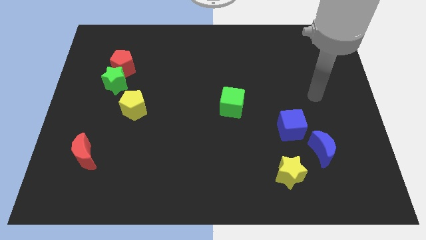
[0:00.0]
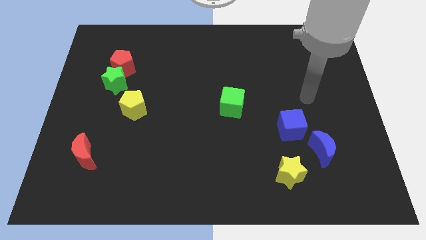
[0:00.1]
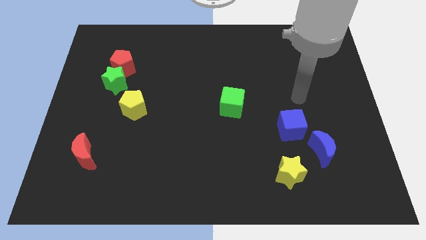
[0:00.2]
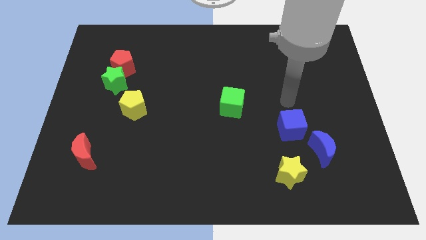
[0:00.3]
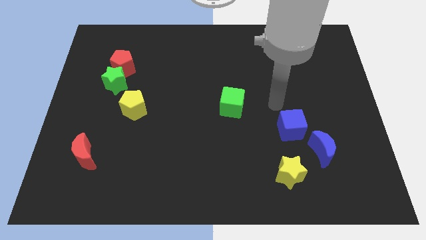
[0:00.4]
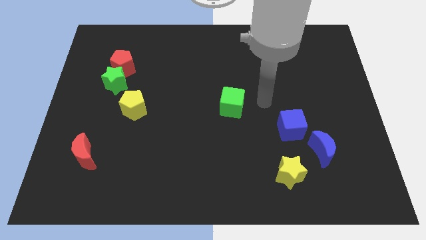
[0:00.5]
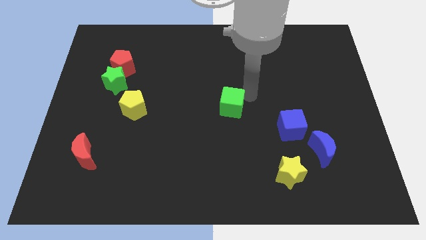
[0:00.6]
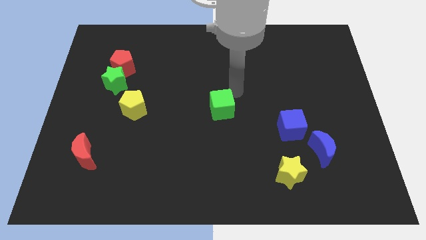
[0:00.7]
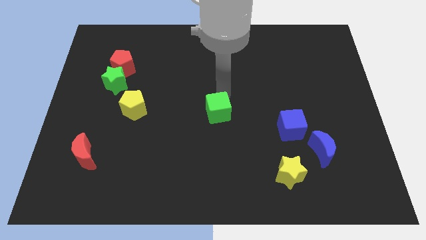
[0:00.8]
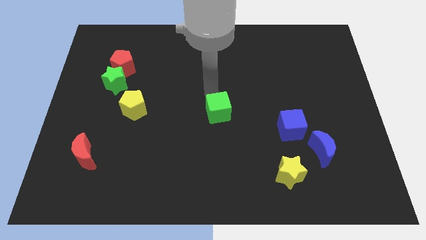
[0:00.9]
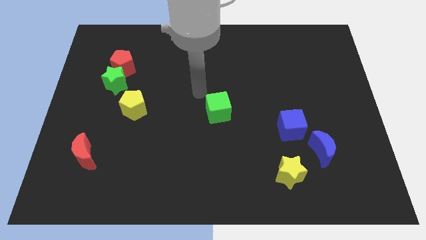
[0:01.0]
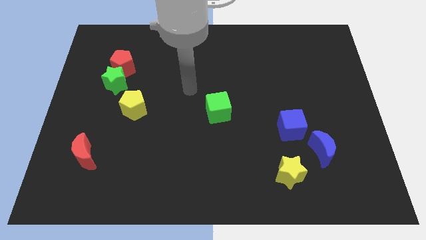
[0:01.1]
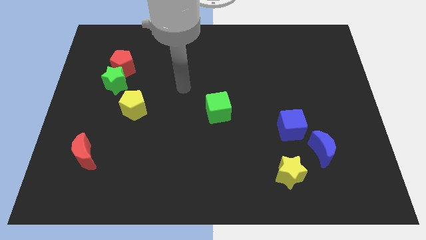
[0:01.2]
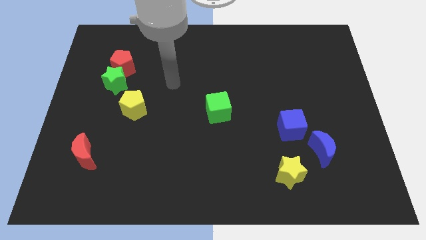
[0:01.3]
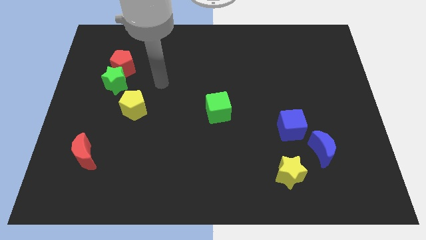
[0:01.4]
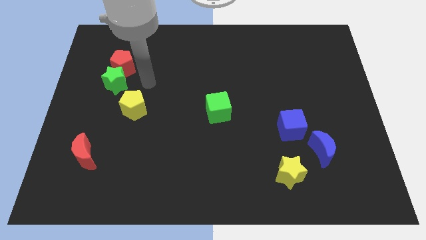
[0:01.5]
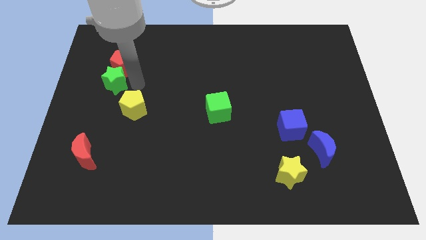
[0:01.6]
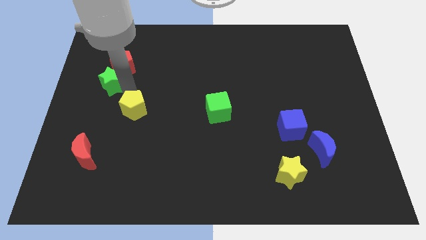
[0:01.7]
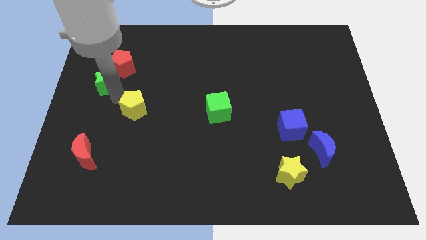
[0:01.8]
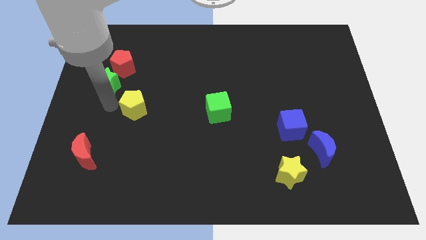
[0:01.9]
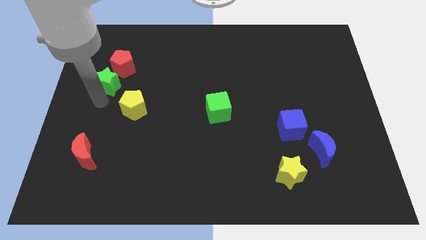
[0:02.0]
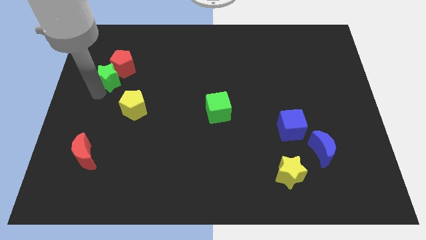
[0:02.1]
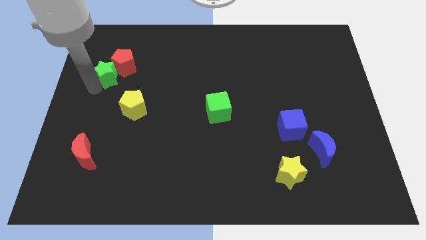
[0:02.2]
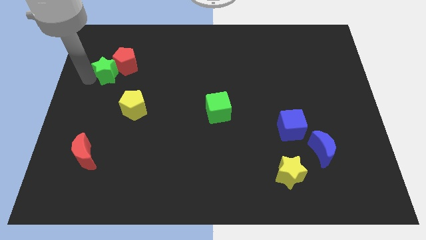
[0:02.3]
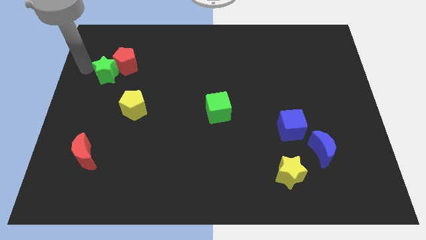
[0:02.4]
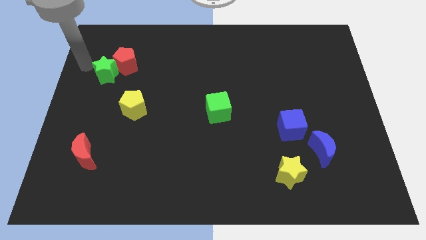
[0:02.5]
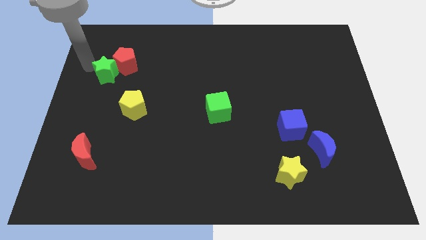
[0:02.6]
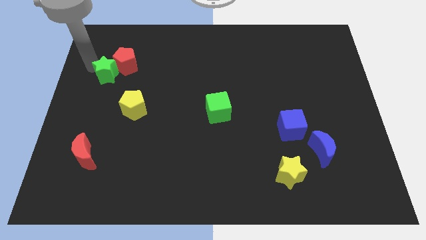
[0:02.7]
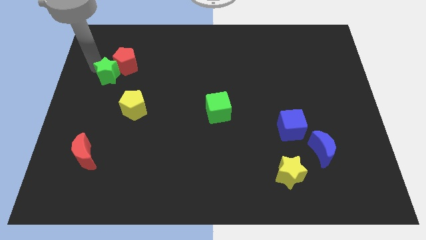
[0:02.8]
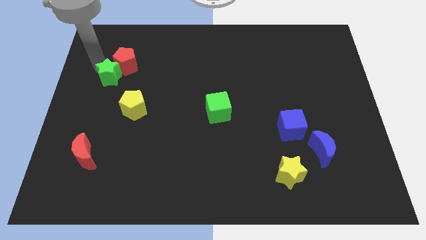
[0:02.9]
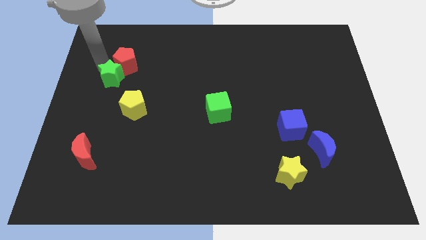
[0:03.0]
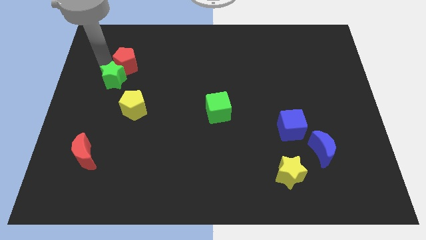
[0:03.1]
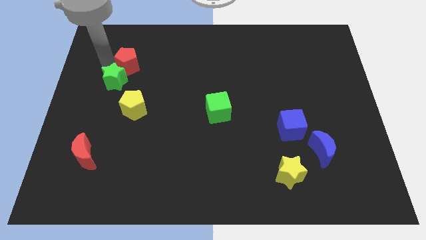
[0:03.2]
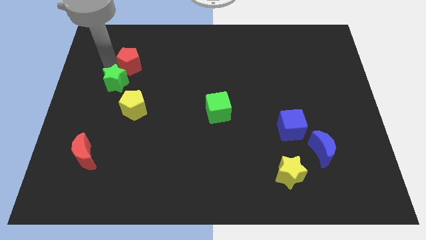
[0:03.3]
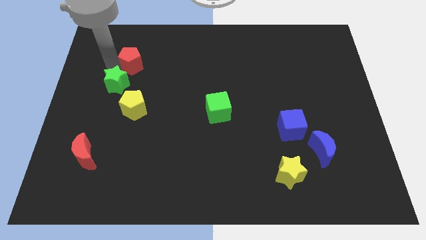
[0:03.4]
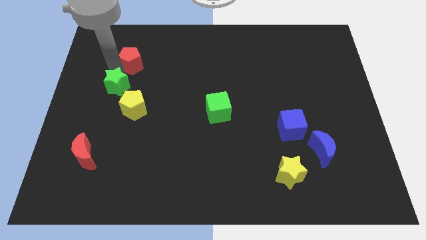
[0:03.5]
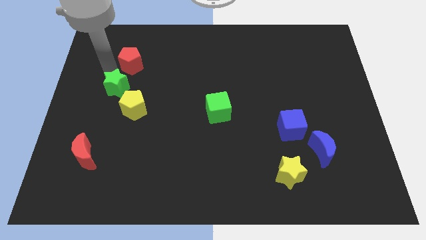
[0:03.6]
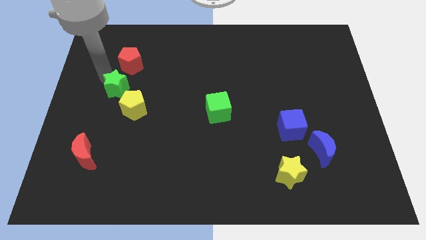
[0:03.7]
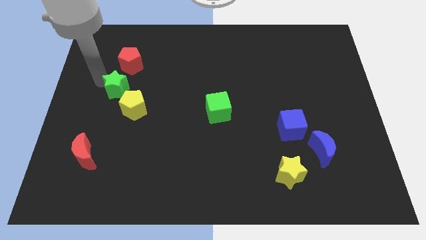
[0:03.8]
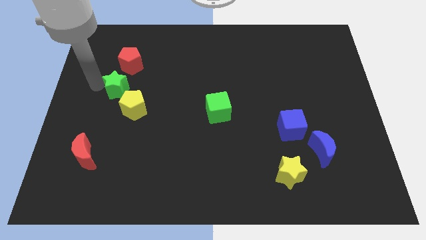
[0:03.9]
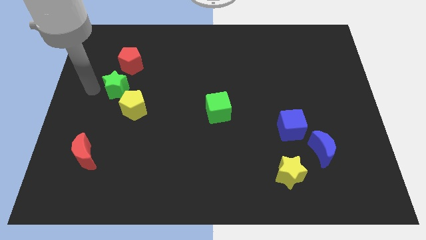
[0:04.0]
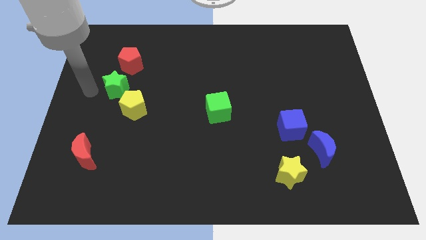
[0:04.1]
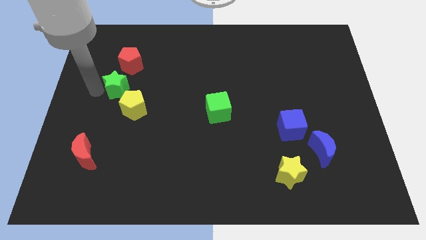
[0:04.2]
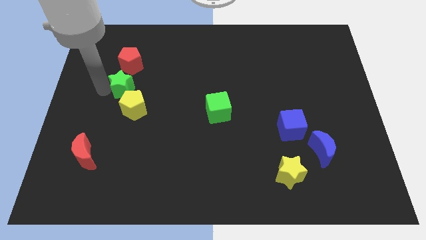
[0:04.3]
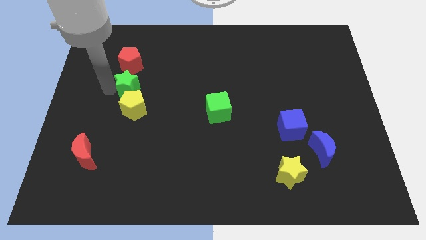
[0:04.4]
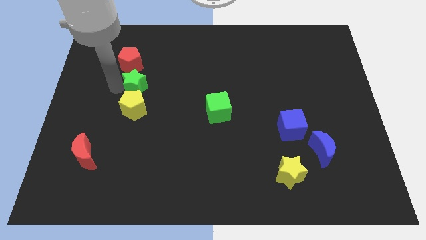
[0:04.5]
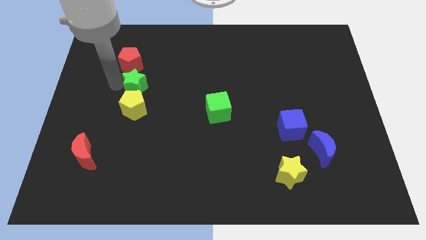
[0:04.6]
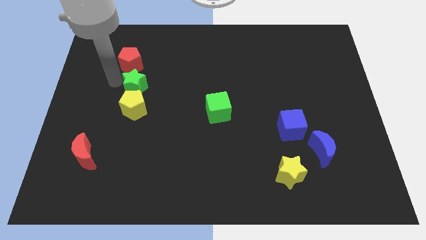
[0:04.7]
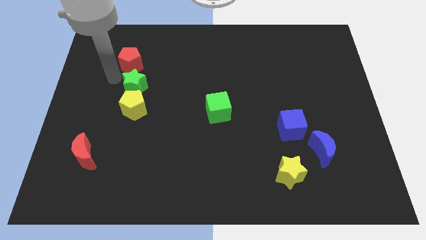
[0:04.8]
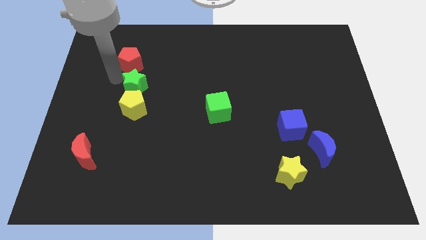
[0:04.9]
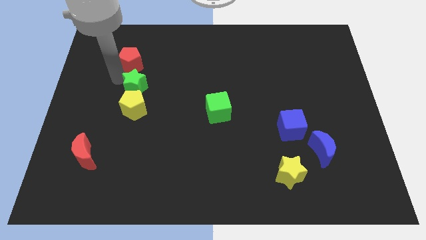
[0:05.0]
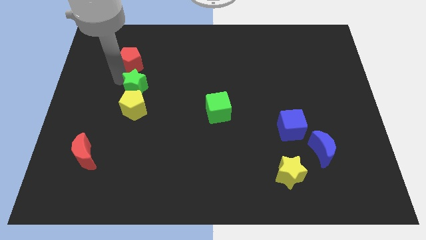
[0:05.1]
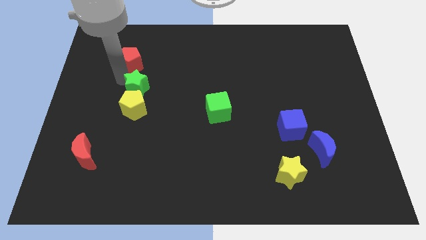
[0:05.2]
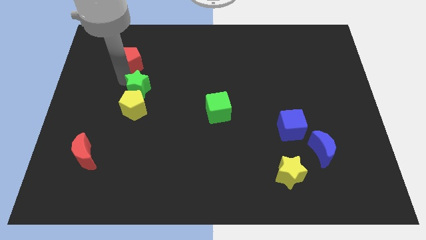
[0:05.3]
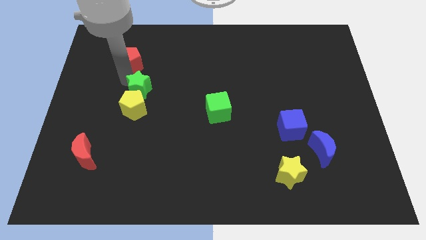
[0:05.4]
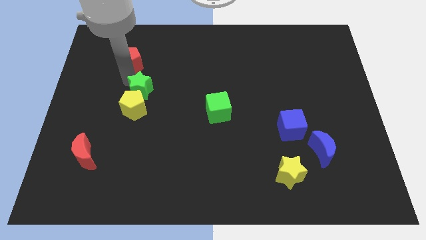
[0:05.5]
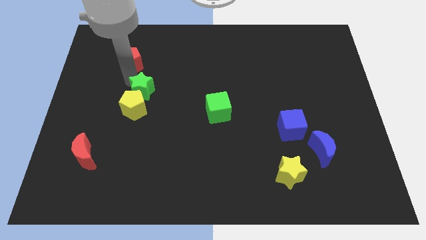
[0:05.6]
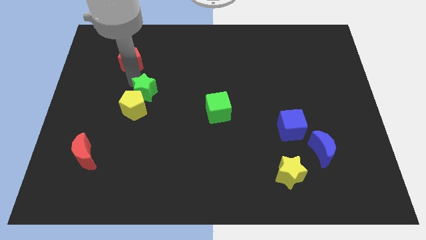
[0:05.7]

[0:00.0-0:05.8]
slightly move the green star downwards and right diagonally

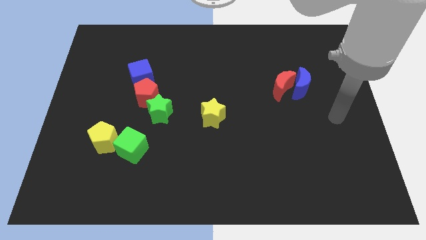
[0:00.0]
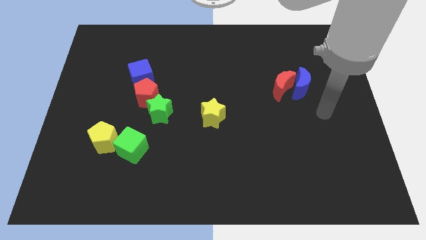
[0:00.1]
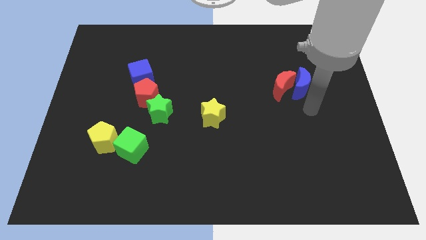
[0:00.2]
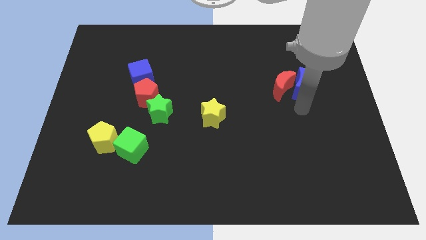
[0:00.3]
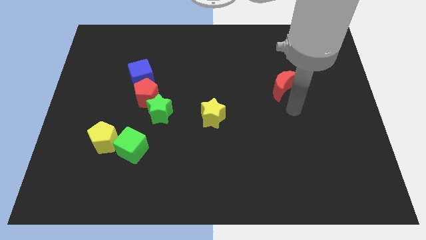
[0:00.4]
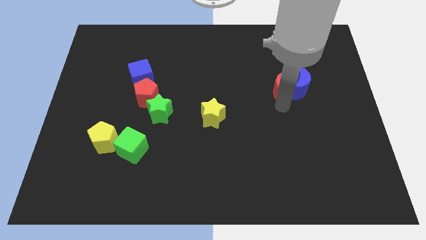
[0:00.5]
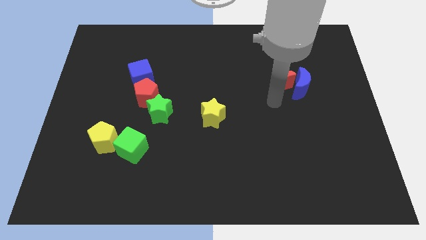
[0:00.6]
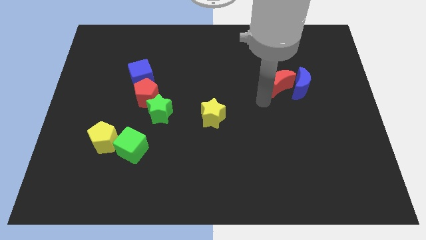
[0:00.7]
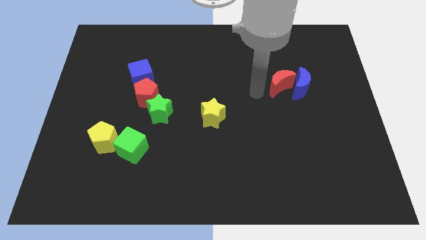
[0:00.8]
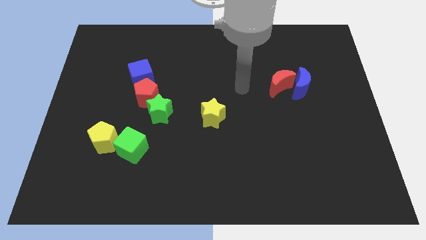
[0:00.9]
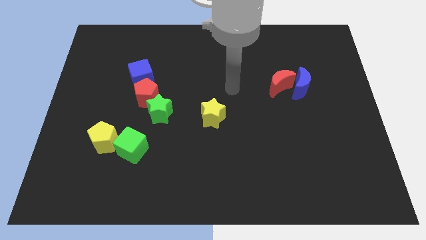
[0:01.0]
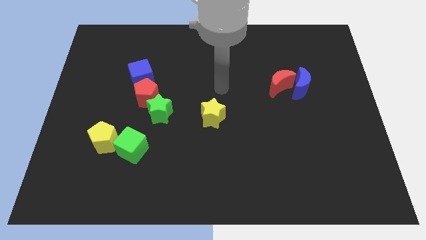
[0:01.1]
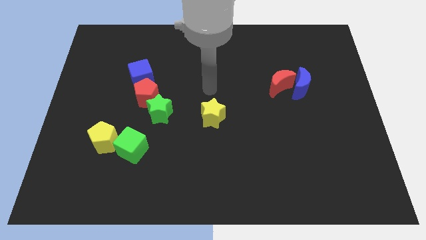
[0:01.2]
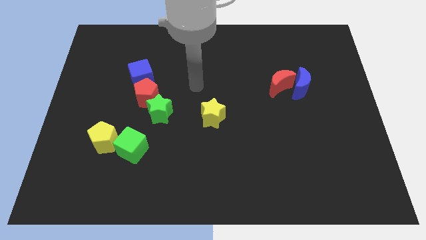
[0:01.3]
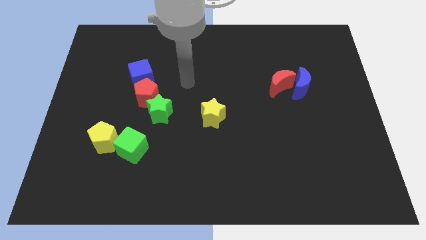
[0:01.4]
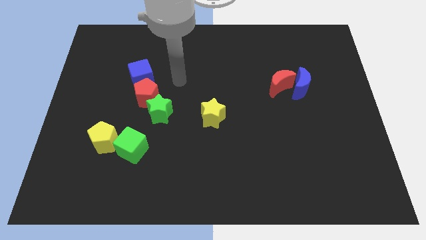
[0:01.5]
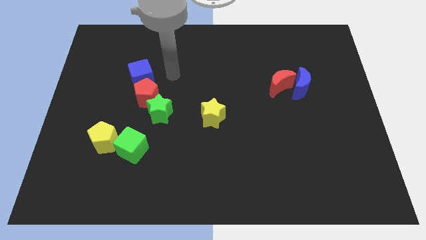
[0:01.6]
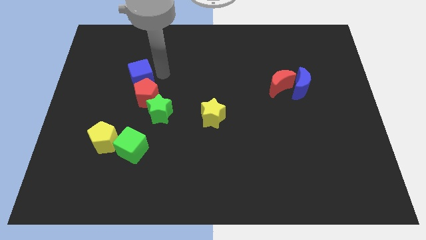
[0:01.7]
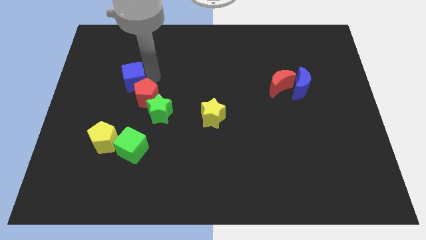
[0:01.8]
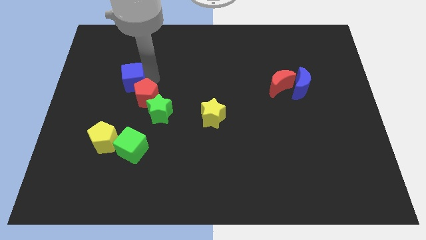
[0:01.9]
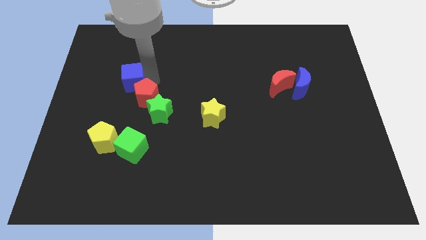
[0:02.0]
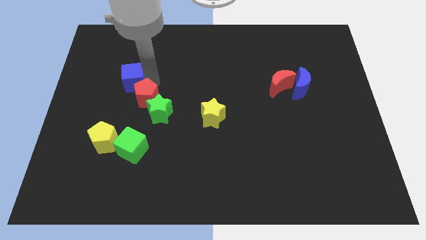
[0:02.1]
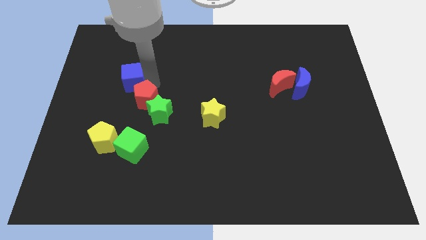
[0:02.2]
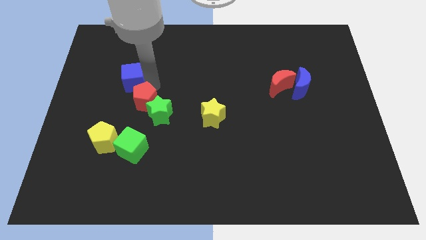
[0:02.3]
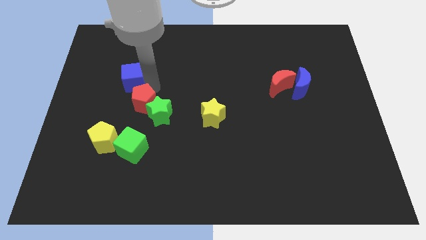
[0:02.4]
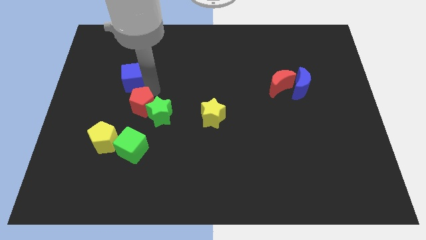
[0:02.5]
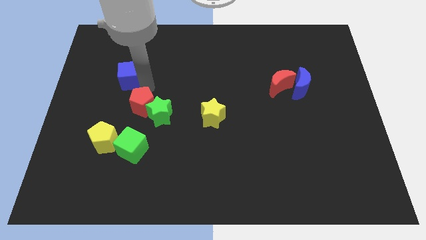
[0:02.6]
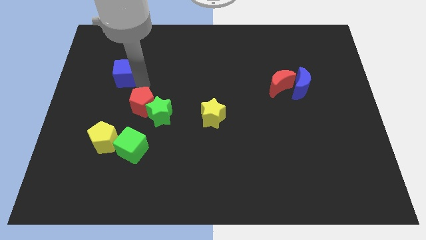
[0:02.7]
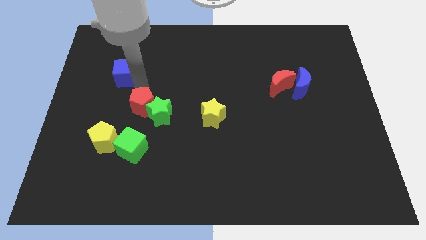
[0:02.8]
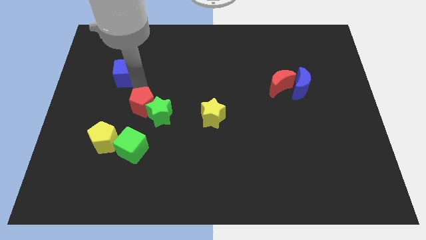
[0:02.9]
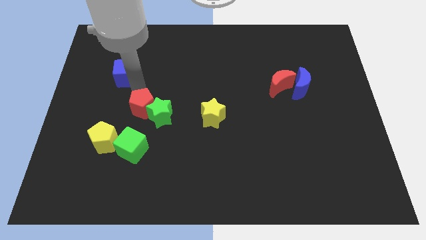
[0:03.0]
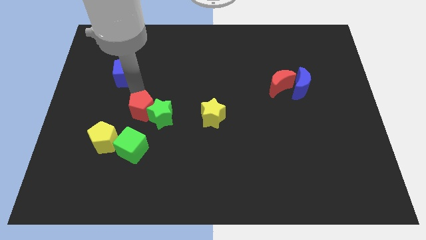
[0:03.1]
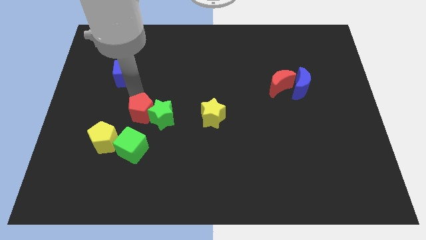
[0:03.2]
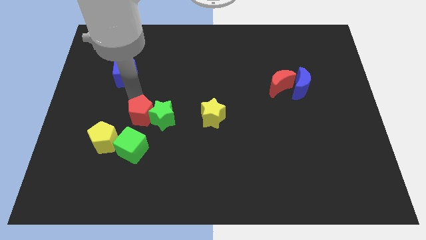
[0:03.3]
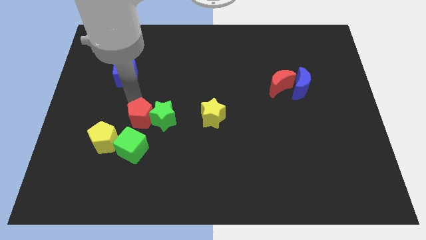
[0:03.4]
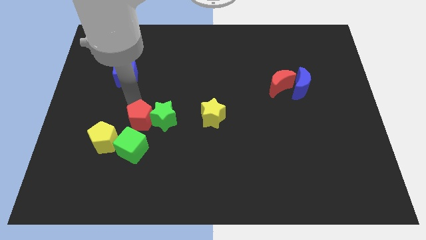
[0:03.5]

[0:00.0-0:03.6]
slightly slide the red pentagon down
